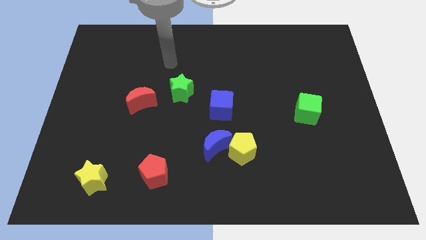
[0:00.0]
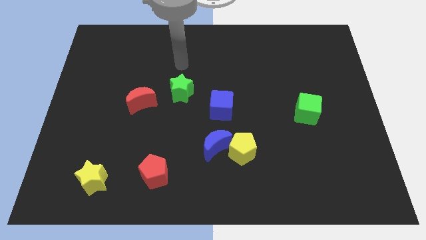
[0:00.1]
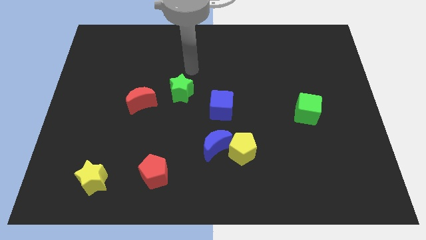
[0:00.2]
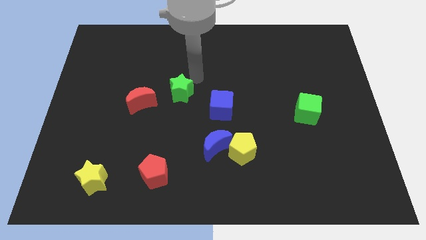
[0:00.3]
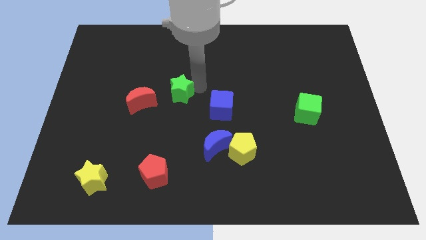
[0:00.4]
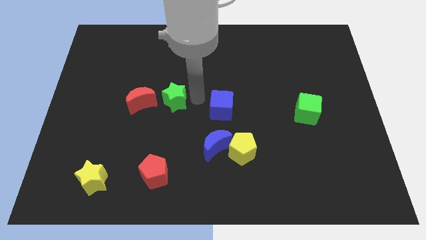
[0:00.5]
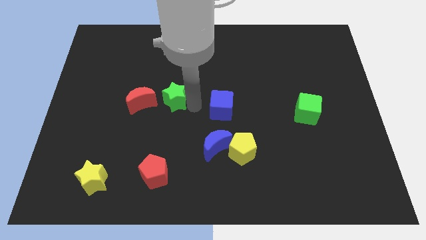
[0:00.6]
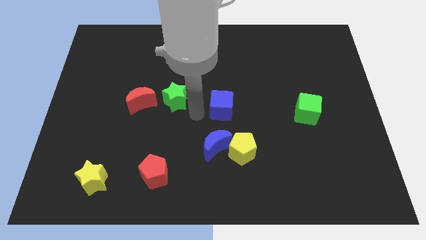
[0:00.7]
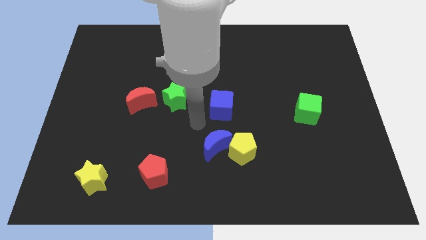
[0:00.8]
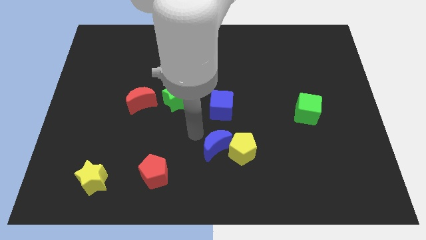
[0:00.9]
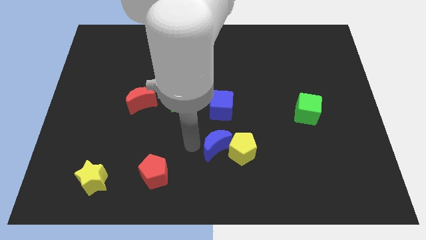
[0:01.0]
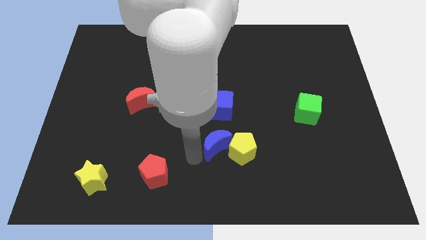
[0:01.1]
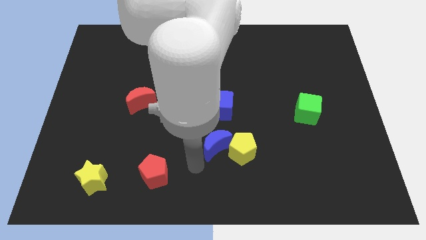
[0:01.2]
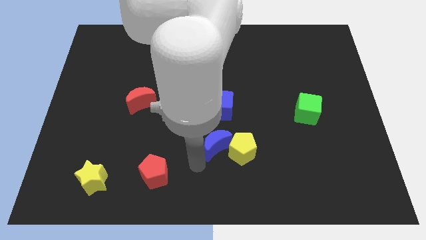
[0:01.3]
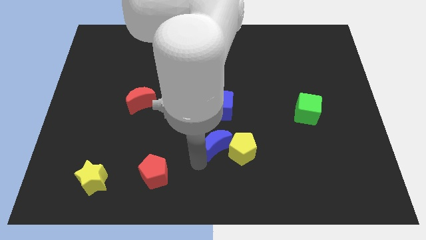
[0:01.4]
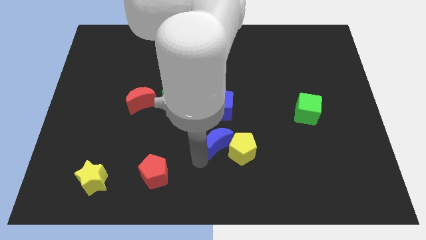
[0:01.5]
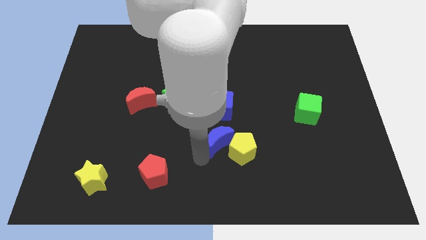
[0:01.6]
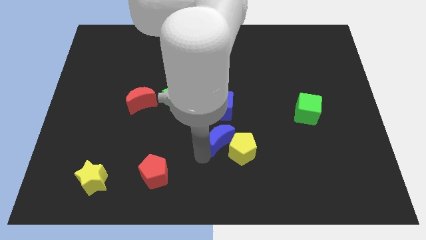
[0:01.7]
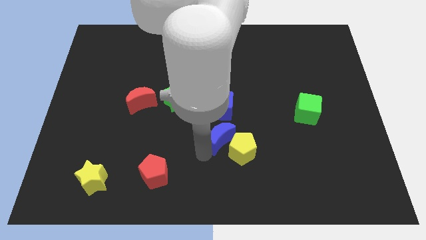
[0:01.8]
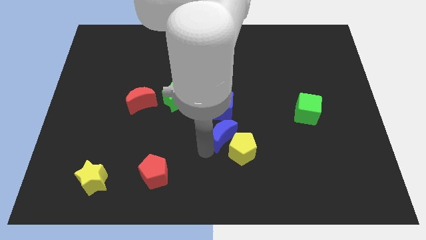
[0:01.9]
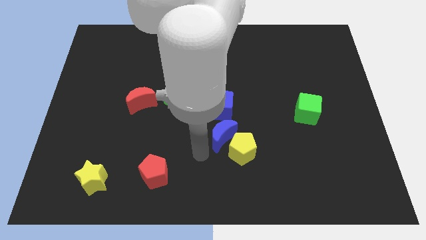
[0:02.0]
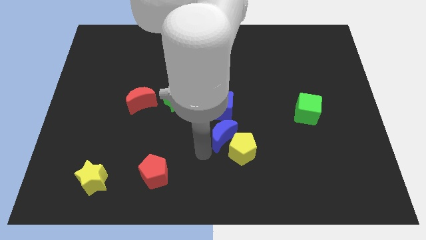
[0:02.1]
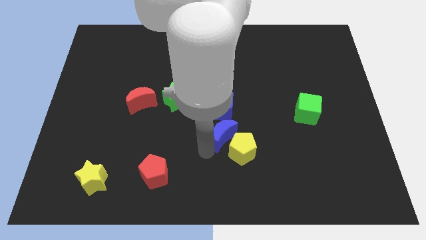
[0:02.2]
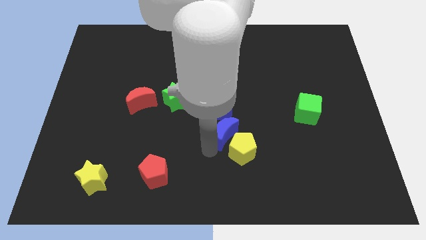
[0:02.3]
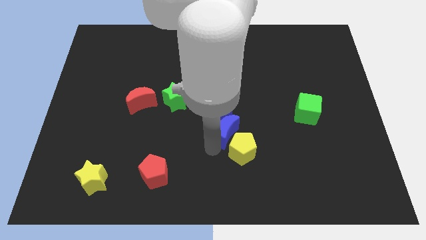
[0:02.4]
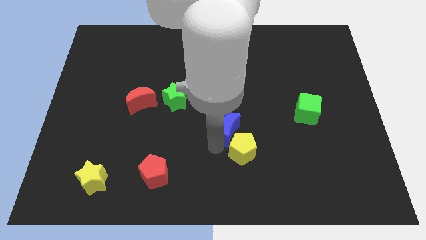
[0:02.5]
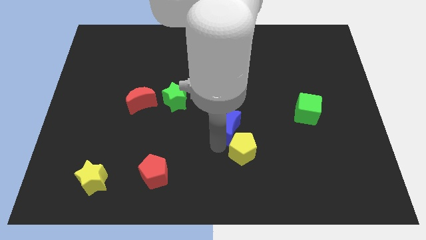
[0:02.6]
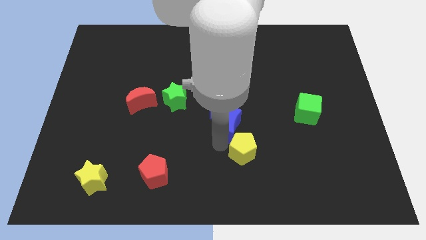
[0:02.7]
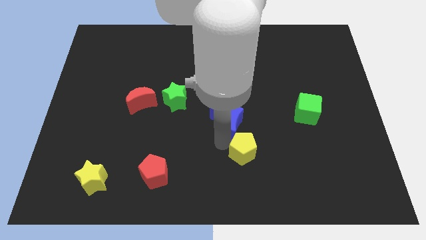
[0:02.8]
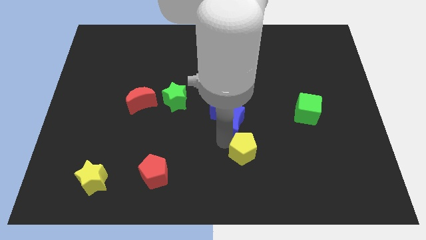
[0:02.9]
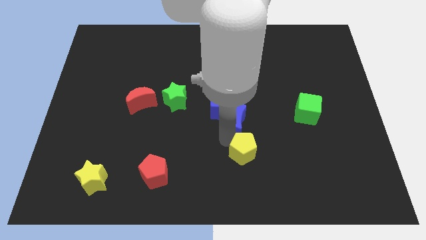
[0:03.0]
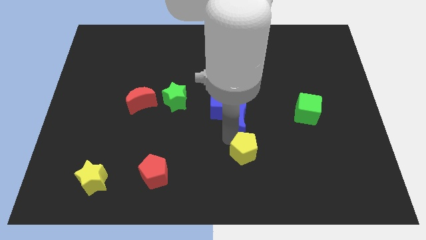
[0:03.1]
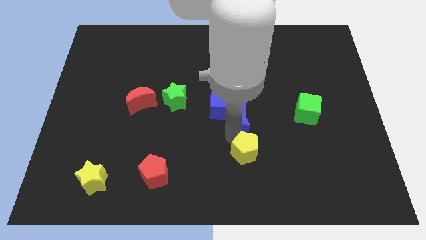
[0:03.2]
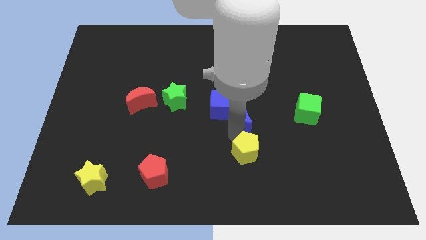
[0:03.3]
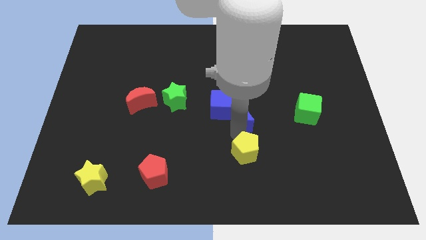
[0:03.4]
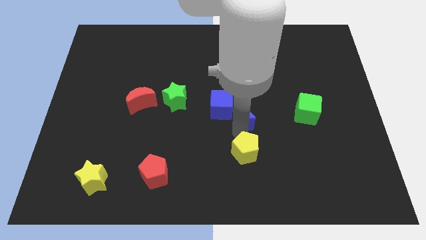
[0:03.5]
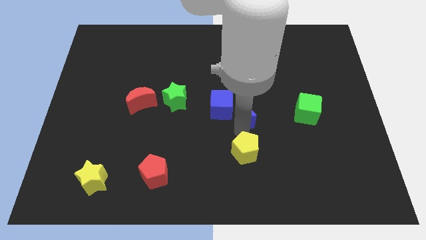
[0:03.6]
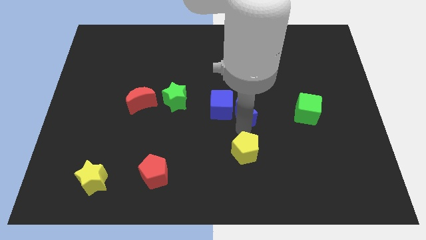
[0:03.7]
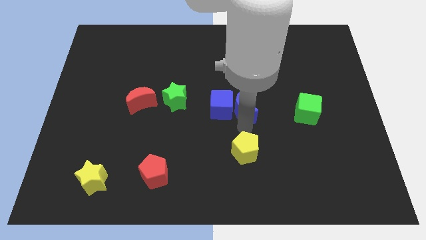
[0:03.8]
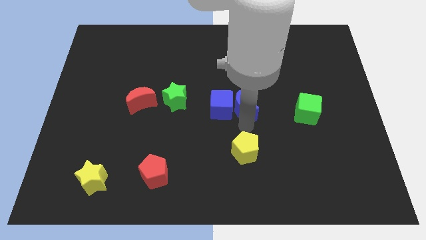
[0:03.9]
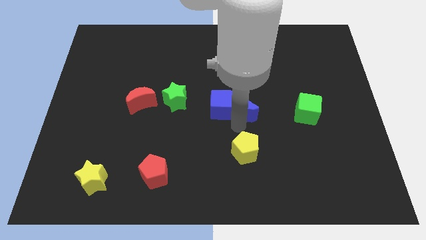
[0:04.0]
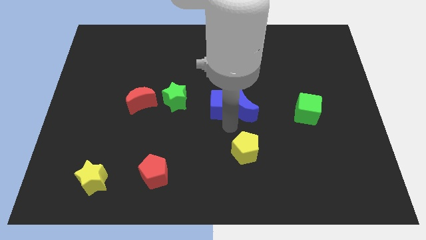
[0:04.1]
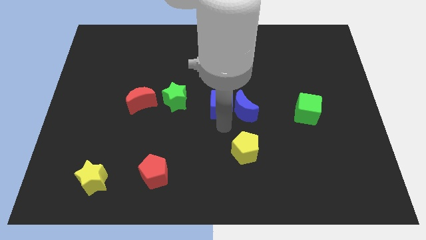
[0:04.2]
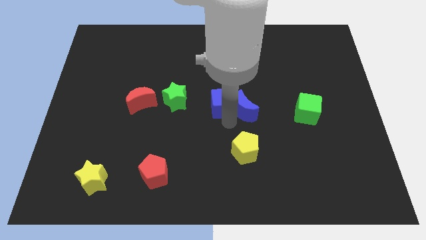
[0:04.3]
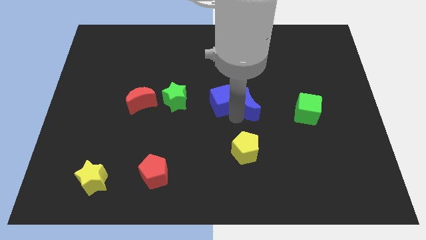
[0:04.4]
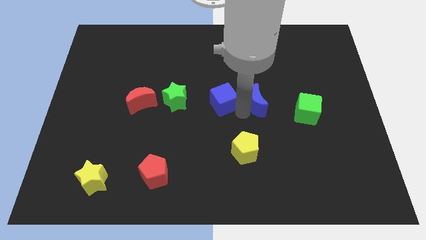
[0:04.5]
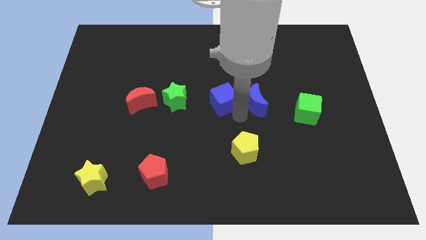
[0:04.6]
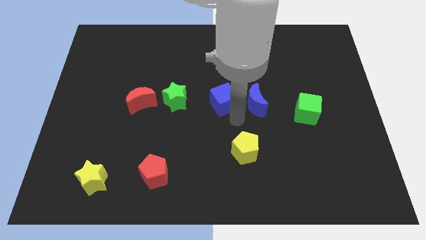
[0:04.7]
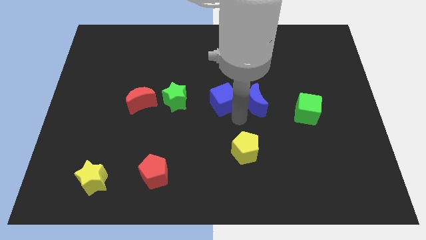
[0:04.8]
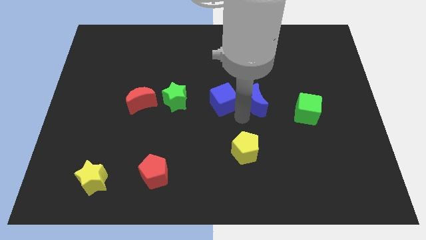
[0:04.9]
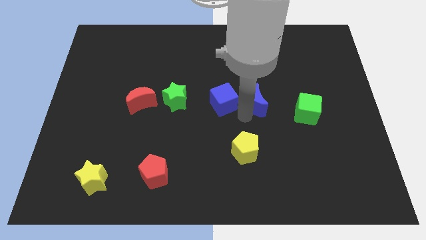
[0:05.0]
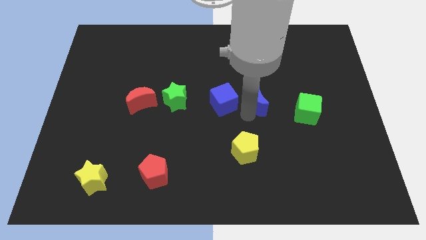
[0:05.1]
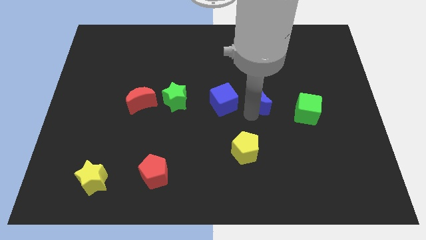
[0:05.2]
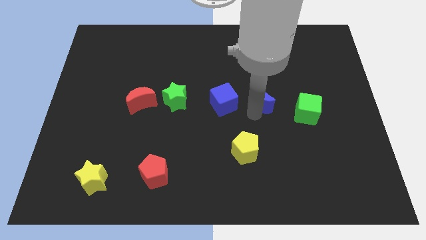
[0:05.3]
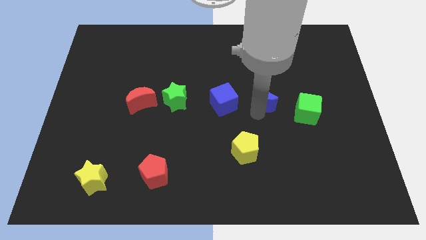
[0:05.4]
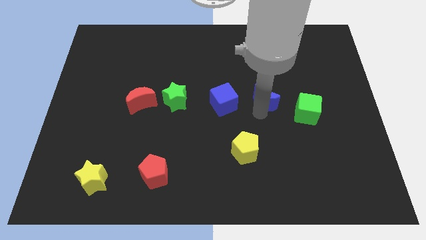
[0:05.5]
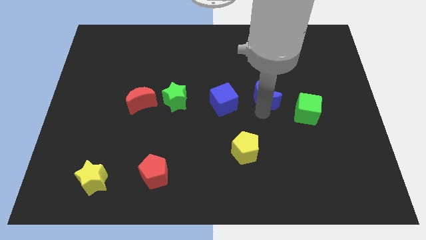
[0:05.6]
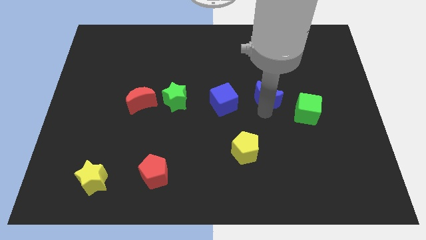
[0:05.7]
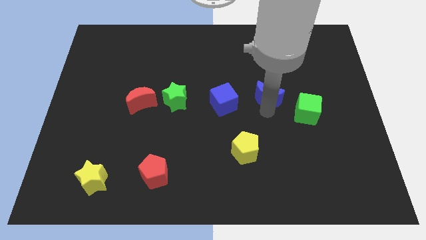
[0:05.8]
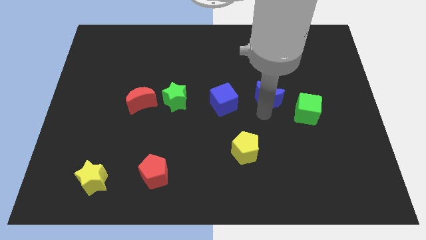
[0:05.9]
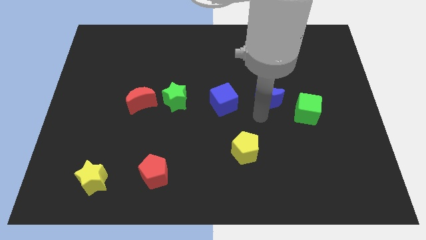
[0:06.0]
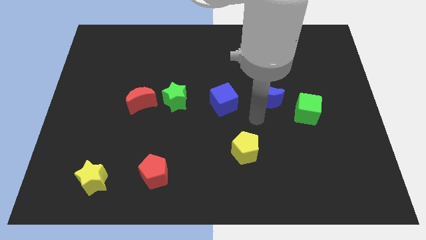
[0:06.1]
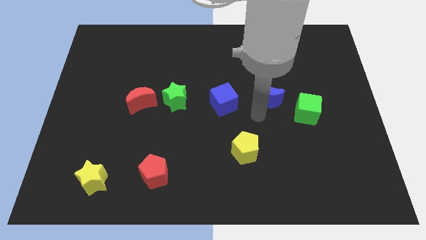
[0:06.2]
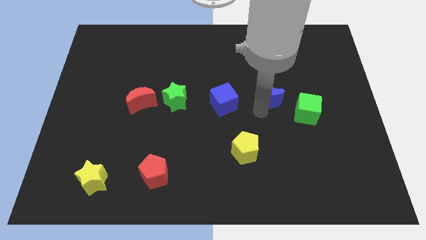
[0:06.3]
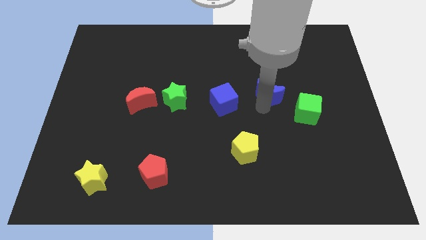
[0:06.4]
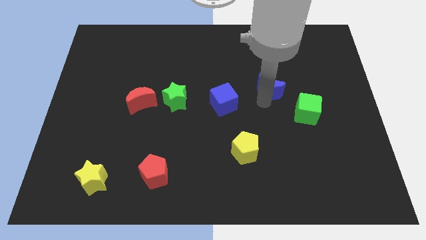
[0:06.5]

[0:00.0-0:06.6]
slide the blue moon up and right diagonally

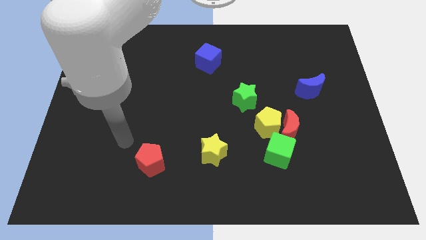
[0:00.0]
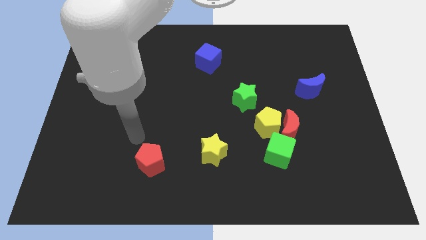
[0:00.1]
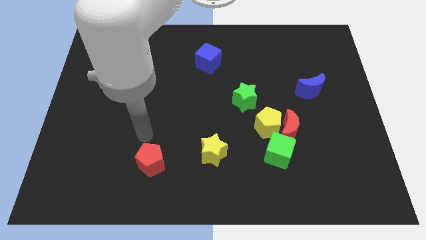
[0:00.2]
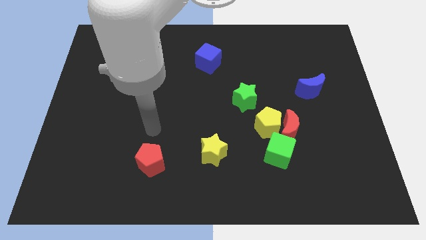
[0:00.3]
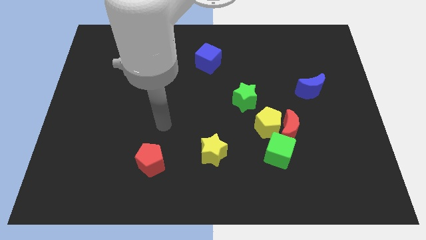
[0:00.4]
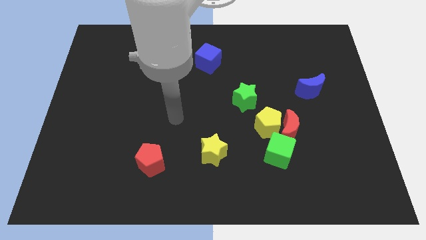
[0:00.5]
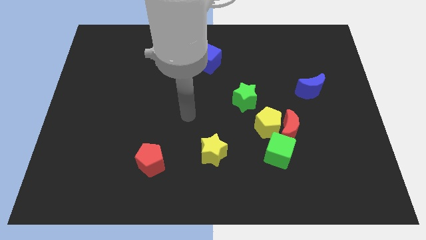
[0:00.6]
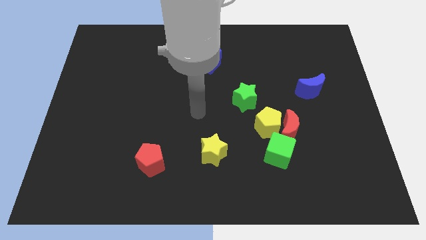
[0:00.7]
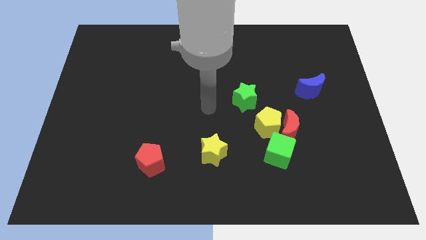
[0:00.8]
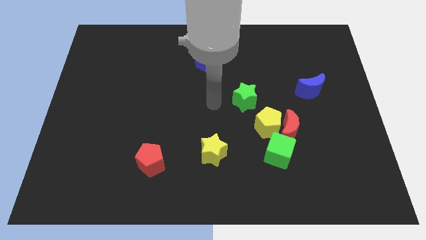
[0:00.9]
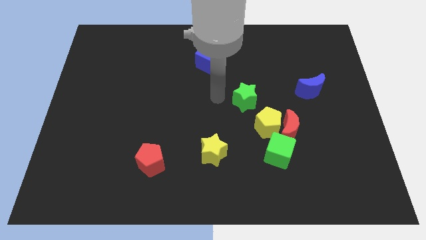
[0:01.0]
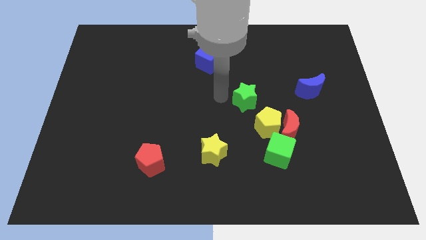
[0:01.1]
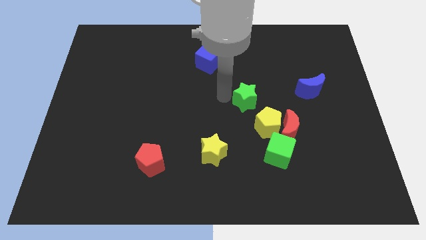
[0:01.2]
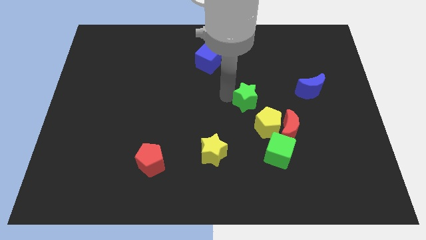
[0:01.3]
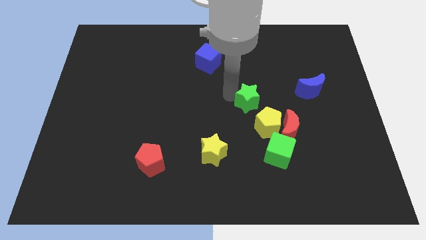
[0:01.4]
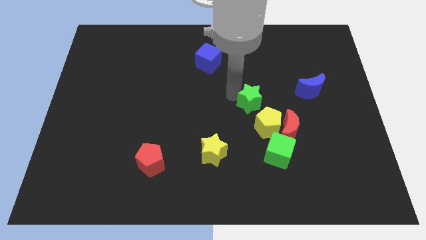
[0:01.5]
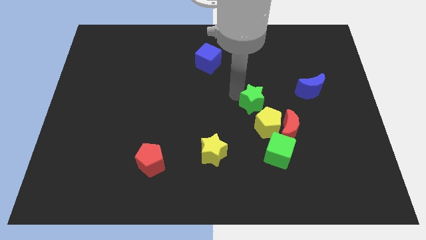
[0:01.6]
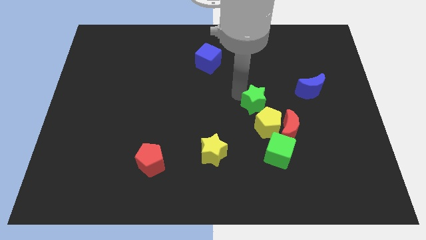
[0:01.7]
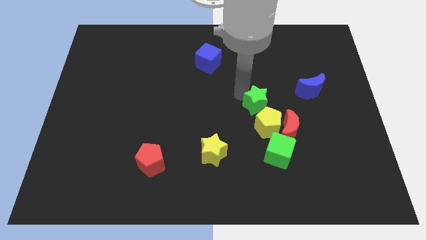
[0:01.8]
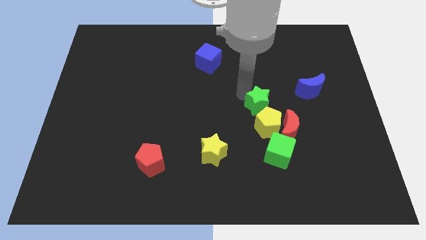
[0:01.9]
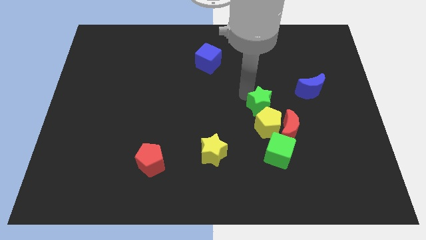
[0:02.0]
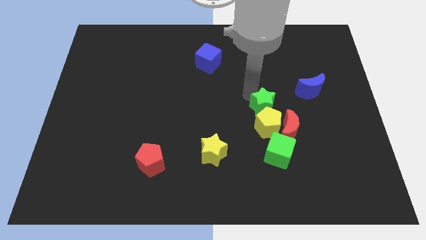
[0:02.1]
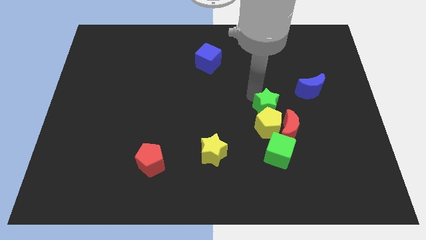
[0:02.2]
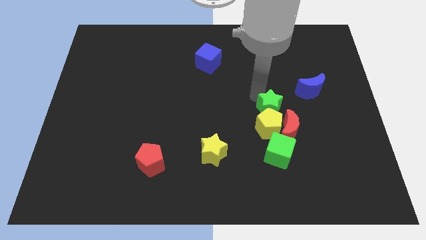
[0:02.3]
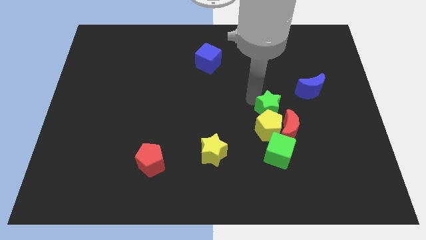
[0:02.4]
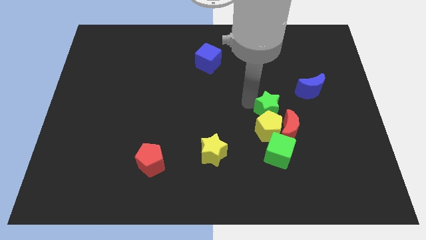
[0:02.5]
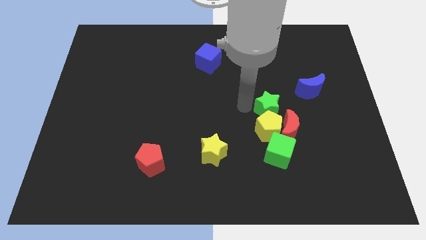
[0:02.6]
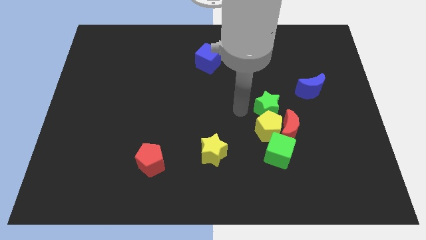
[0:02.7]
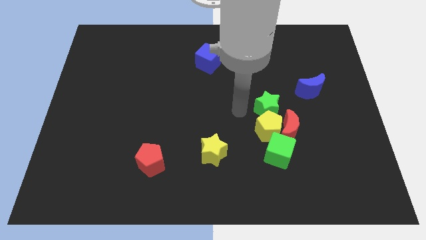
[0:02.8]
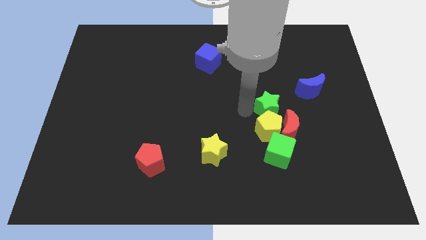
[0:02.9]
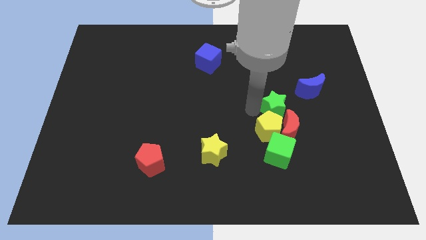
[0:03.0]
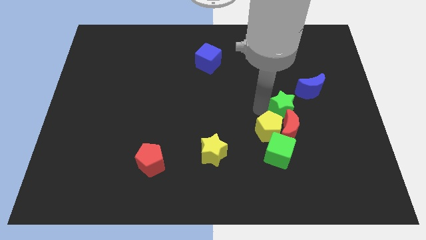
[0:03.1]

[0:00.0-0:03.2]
push the green star right somewhat
